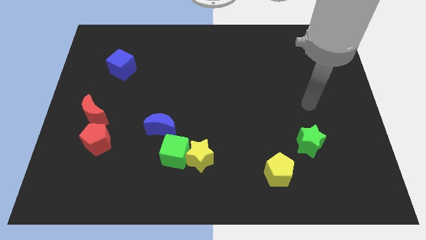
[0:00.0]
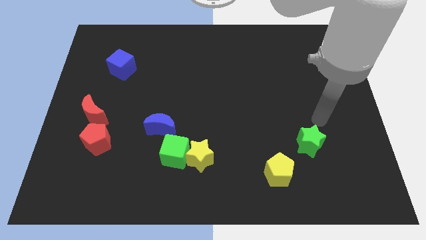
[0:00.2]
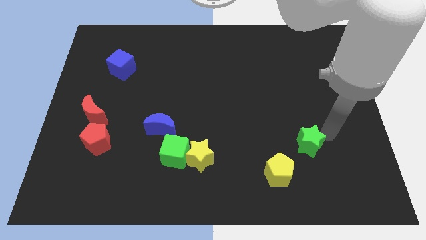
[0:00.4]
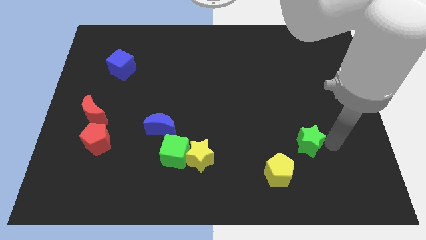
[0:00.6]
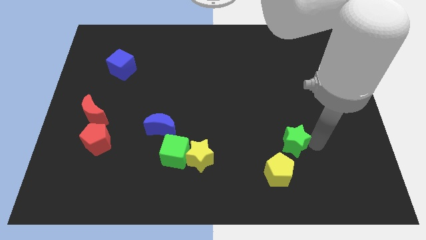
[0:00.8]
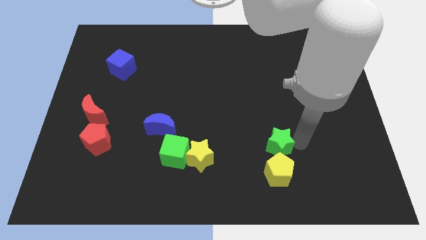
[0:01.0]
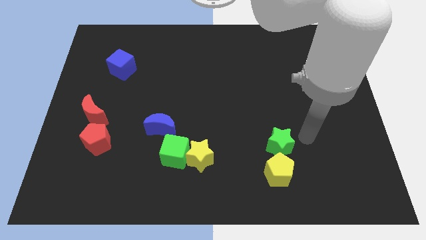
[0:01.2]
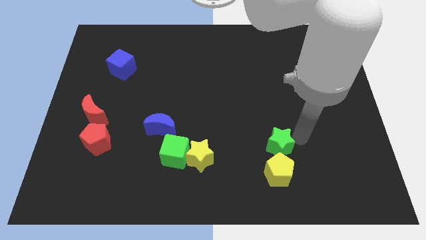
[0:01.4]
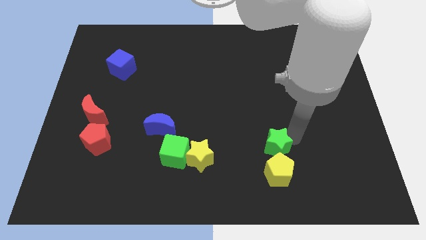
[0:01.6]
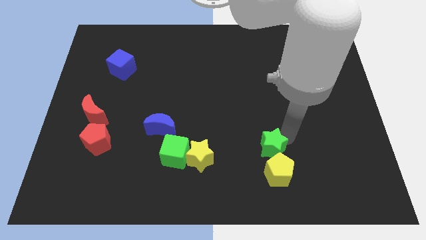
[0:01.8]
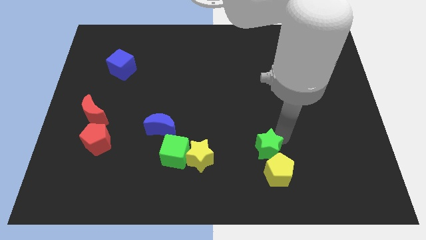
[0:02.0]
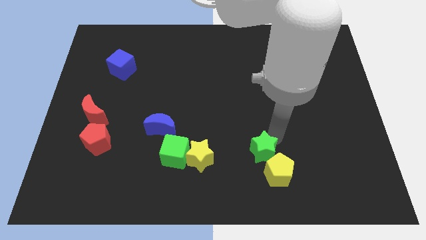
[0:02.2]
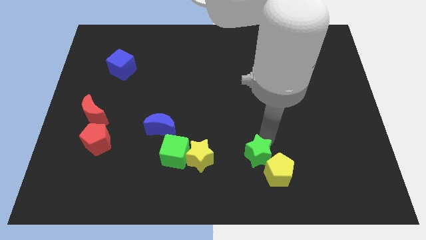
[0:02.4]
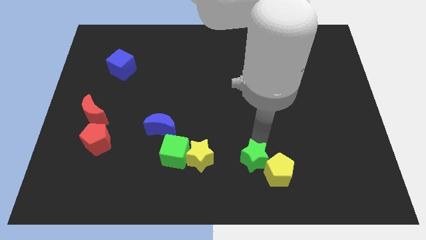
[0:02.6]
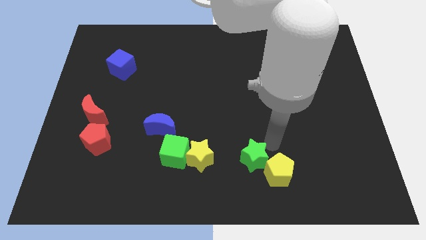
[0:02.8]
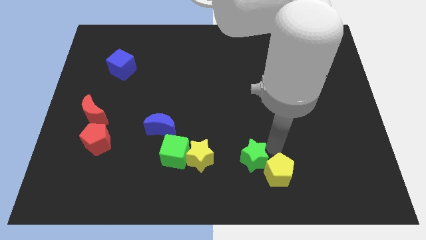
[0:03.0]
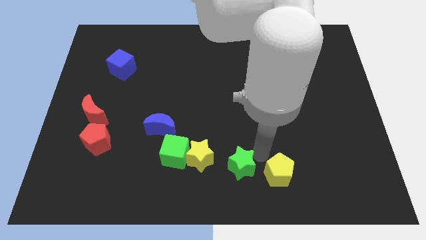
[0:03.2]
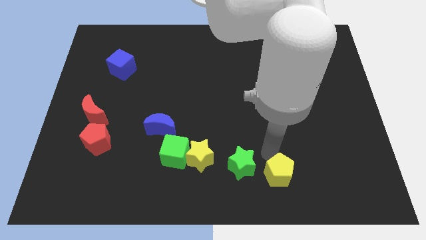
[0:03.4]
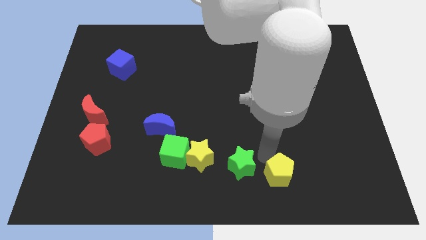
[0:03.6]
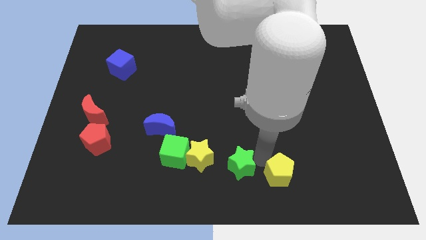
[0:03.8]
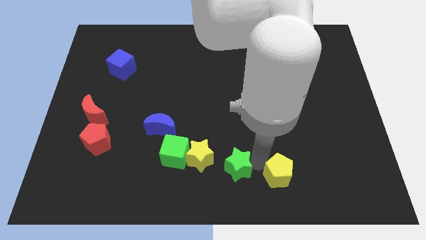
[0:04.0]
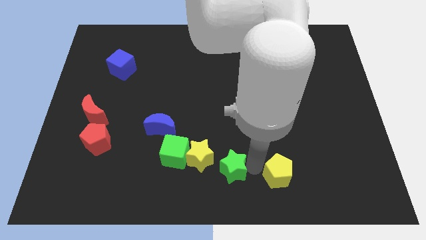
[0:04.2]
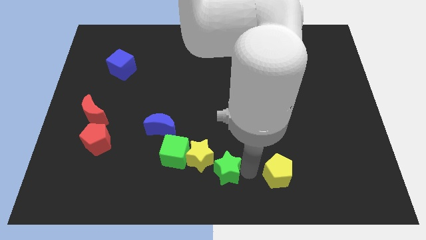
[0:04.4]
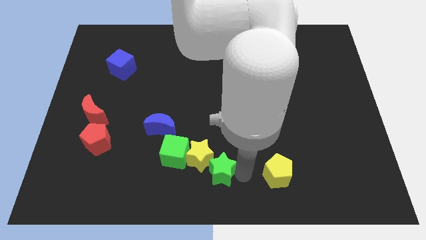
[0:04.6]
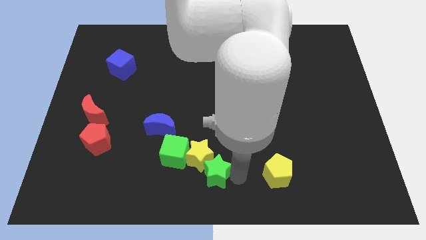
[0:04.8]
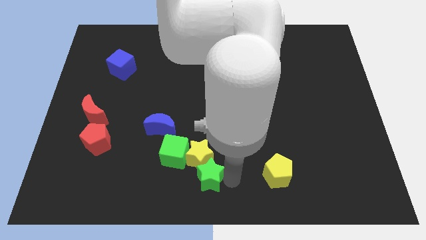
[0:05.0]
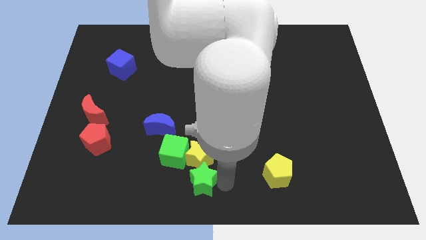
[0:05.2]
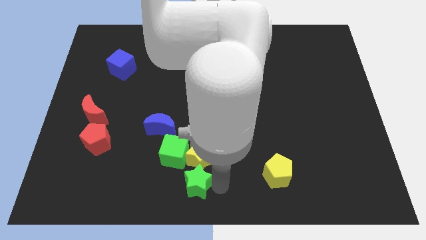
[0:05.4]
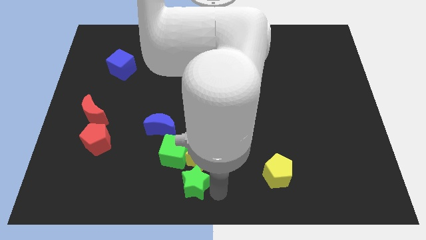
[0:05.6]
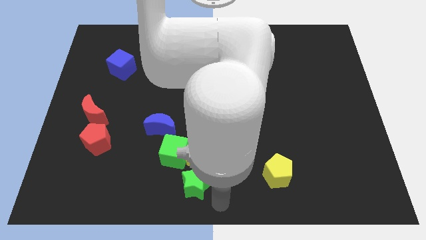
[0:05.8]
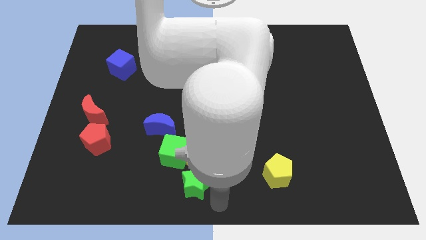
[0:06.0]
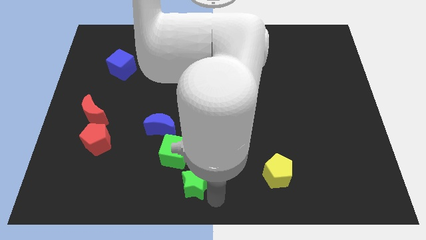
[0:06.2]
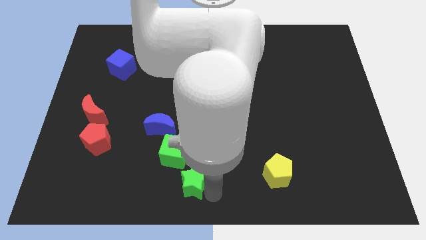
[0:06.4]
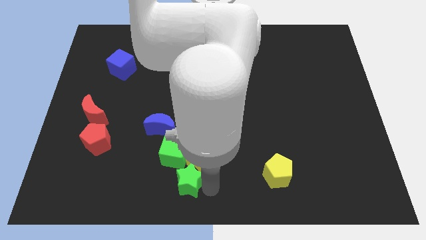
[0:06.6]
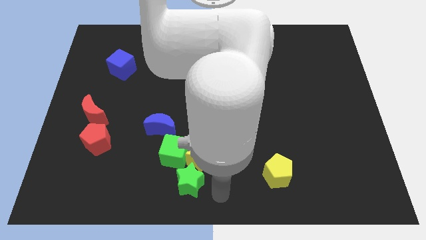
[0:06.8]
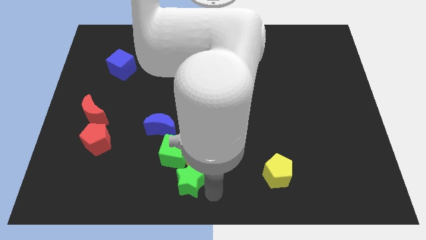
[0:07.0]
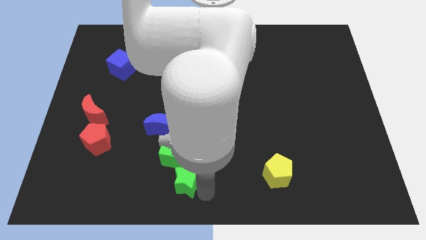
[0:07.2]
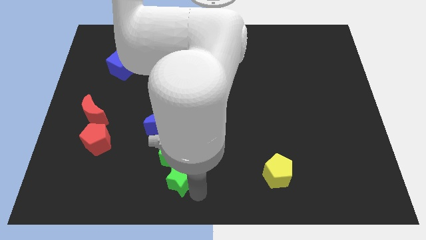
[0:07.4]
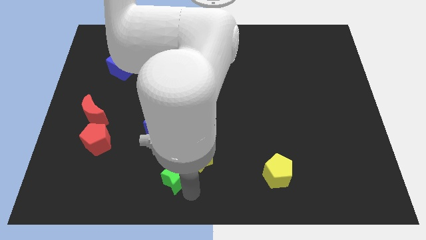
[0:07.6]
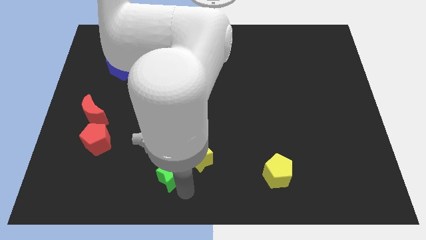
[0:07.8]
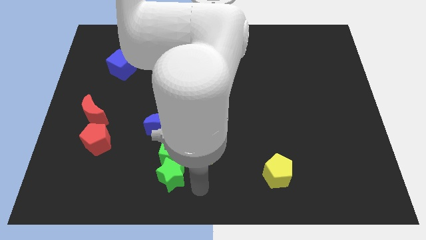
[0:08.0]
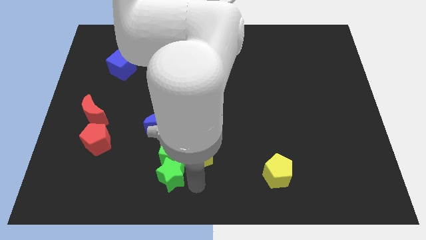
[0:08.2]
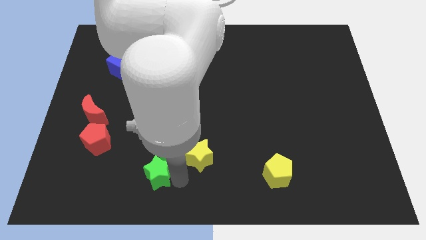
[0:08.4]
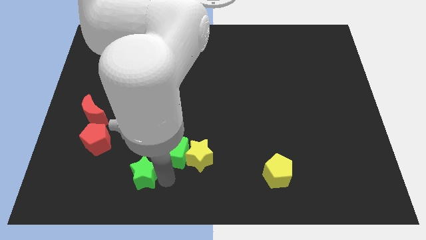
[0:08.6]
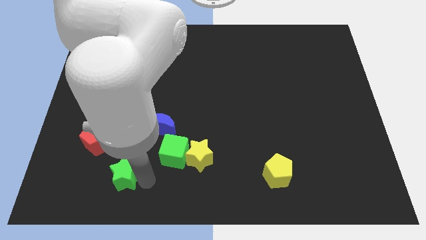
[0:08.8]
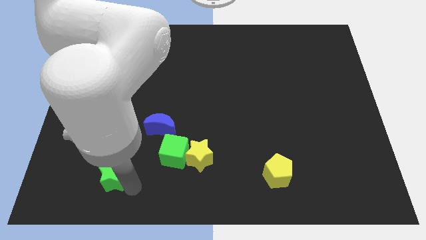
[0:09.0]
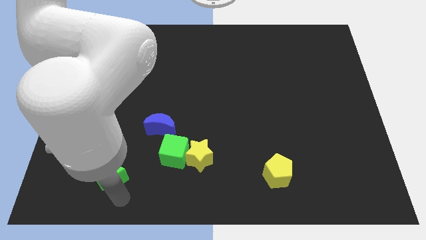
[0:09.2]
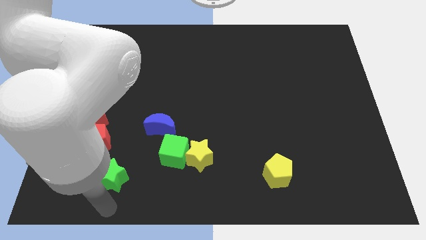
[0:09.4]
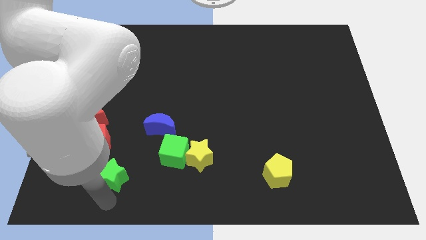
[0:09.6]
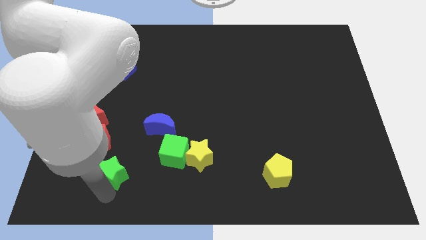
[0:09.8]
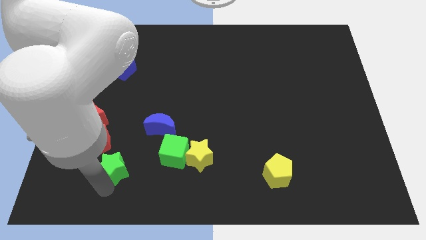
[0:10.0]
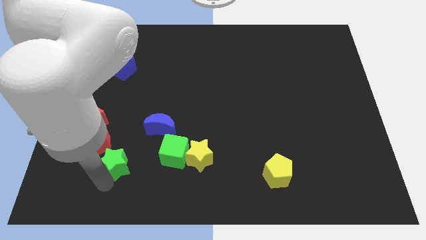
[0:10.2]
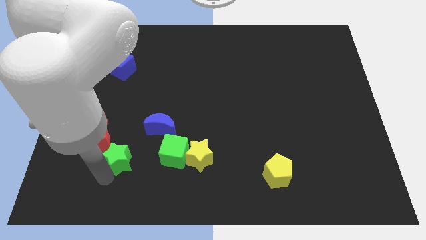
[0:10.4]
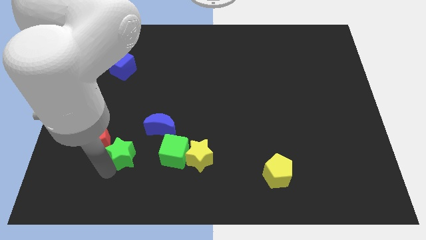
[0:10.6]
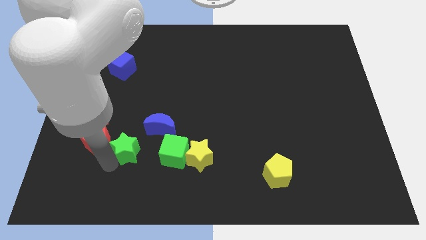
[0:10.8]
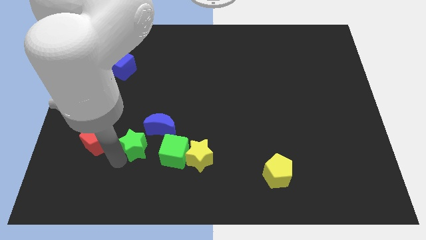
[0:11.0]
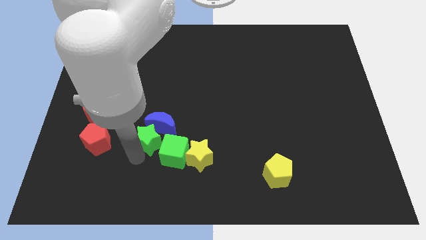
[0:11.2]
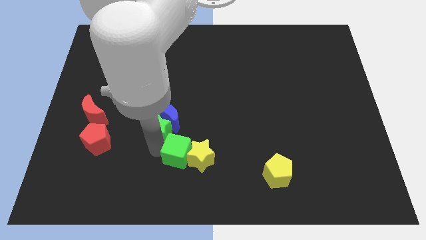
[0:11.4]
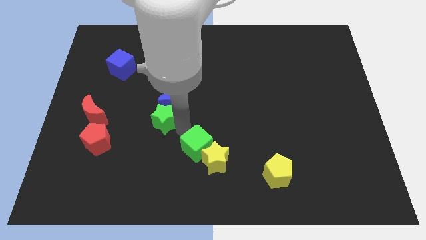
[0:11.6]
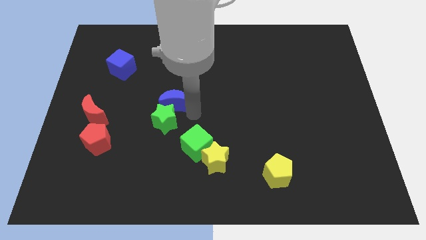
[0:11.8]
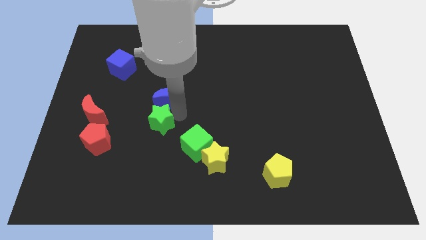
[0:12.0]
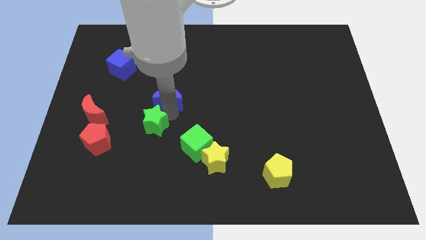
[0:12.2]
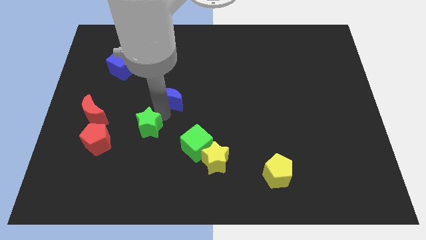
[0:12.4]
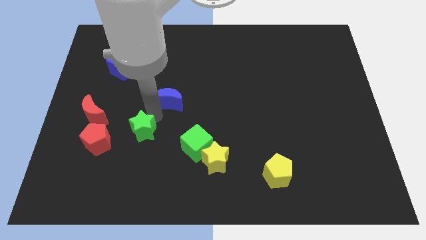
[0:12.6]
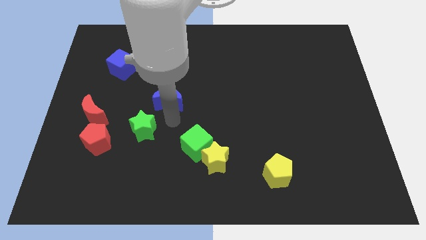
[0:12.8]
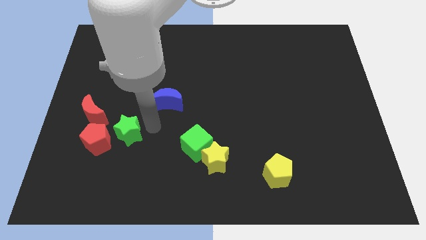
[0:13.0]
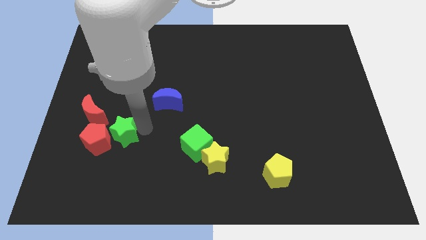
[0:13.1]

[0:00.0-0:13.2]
put the green star next to the red pentagon
